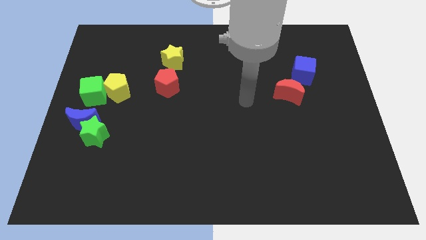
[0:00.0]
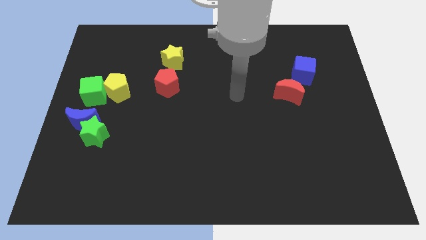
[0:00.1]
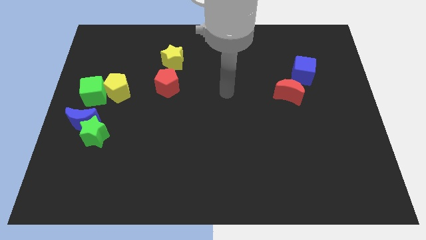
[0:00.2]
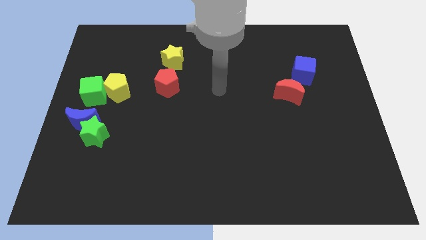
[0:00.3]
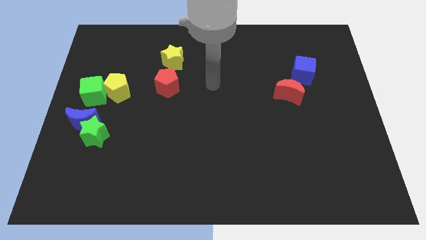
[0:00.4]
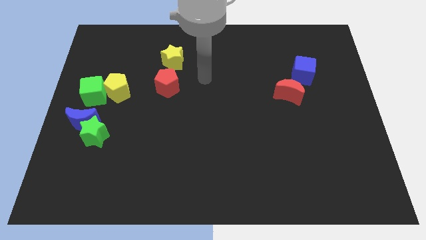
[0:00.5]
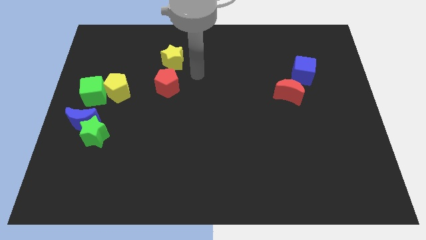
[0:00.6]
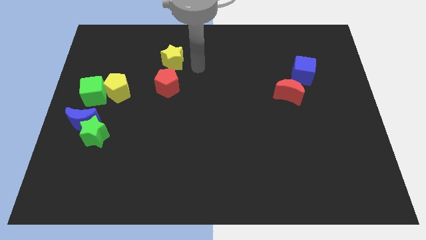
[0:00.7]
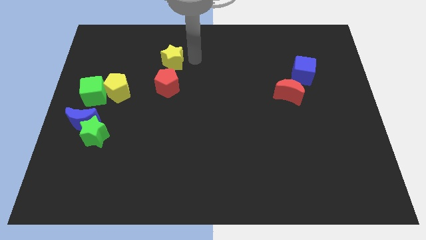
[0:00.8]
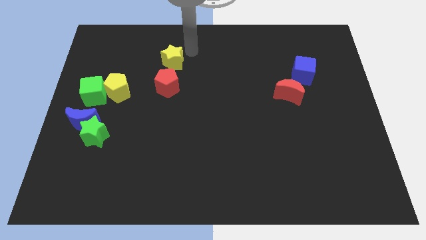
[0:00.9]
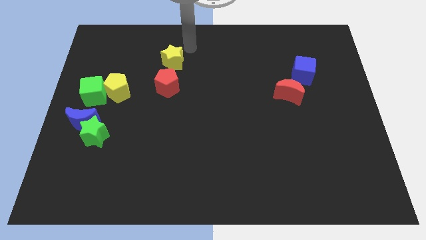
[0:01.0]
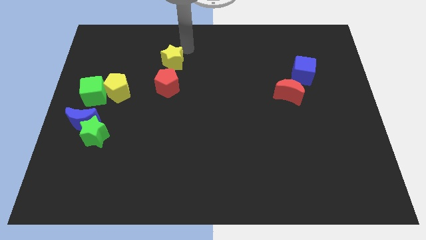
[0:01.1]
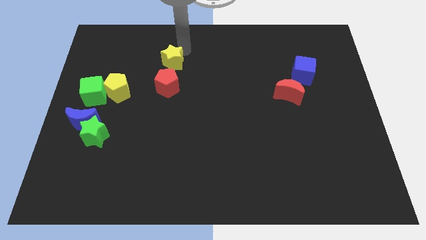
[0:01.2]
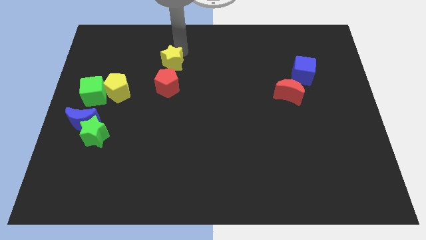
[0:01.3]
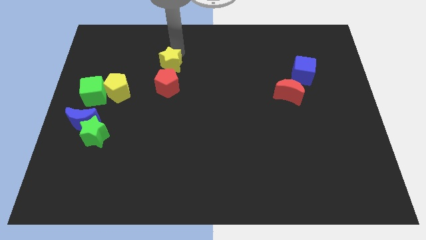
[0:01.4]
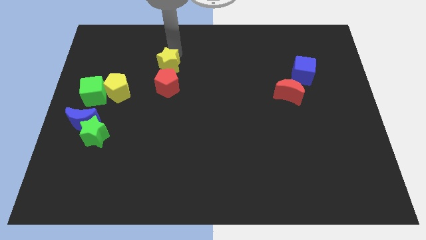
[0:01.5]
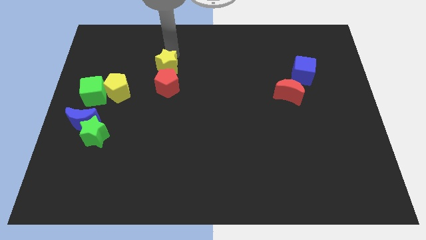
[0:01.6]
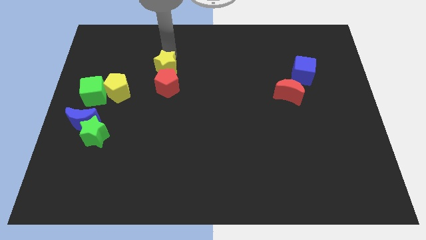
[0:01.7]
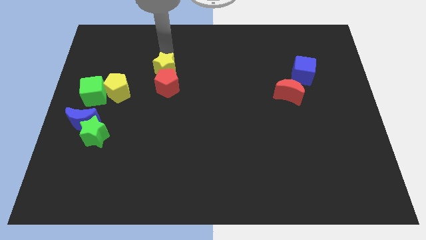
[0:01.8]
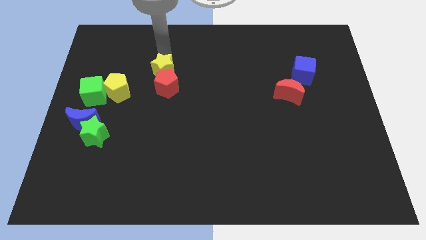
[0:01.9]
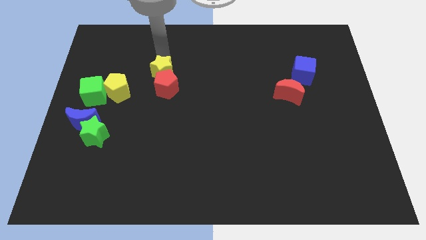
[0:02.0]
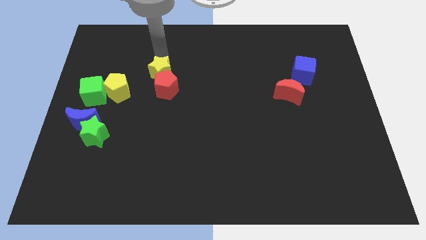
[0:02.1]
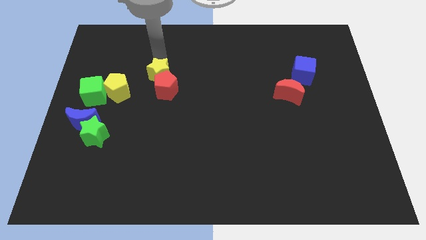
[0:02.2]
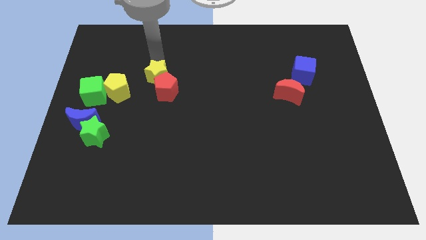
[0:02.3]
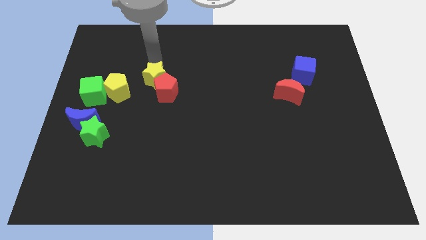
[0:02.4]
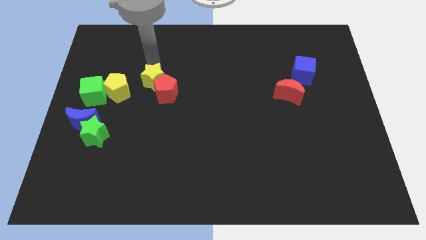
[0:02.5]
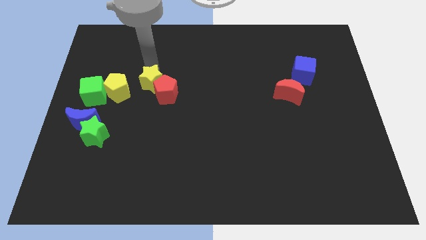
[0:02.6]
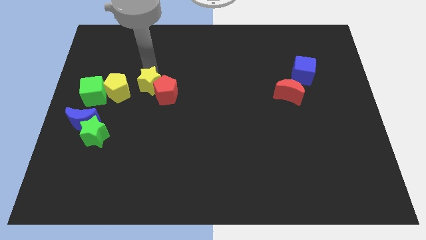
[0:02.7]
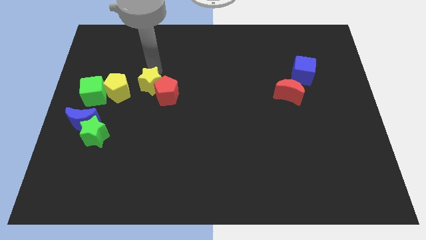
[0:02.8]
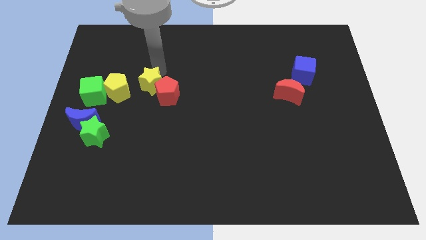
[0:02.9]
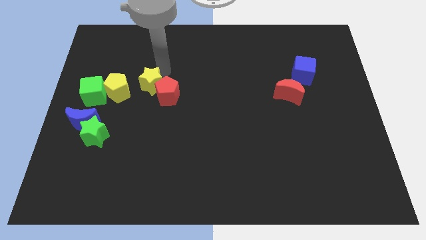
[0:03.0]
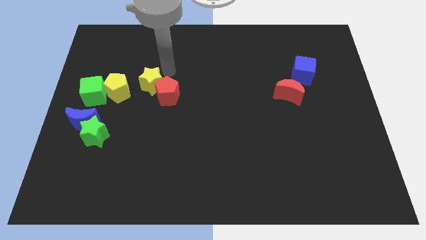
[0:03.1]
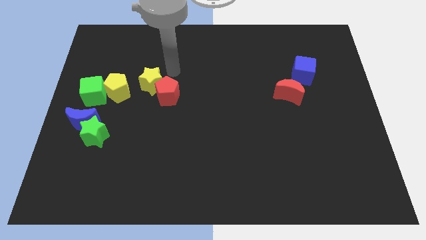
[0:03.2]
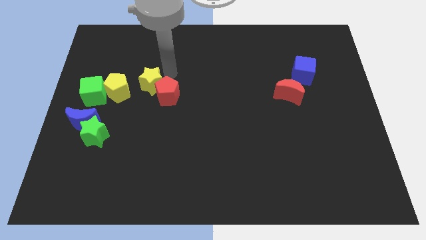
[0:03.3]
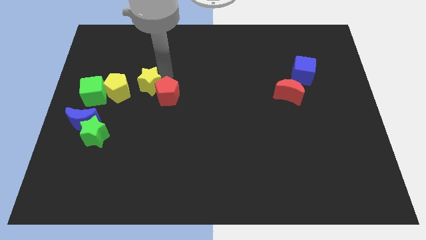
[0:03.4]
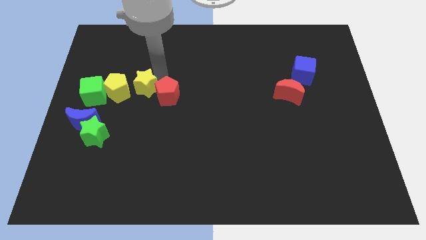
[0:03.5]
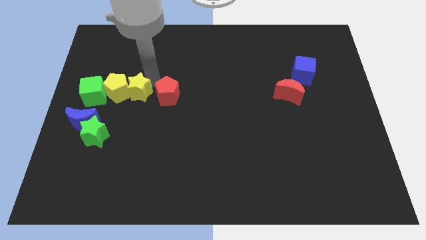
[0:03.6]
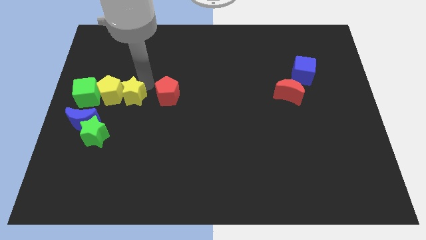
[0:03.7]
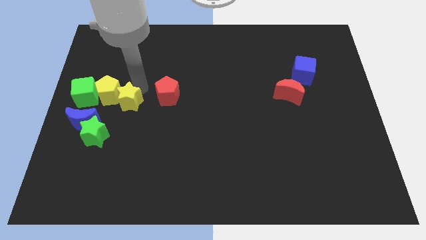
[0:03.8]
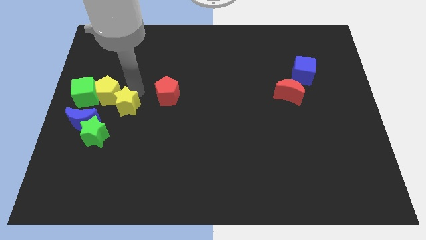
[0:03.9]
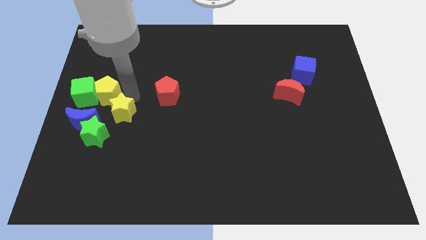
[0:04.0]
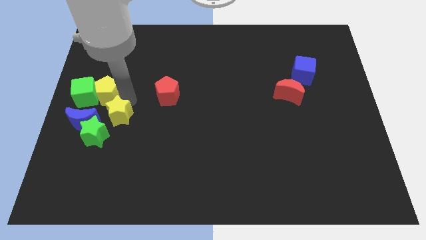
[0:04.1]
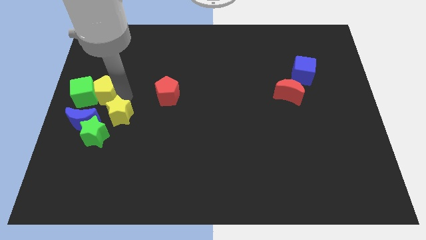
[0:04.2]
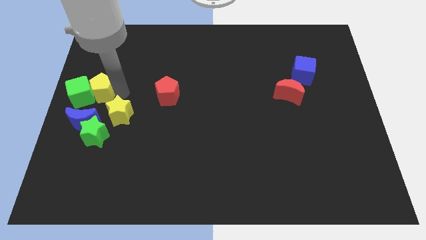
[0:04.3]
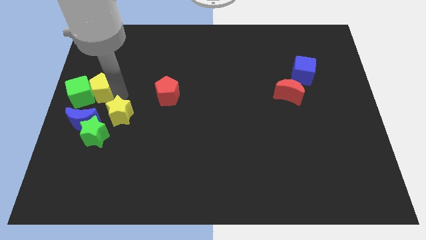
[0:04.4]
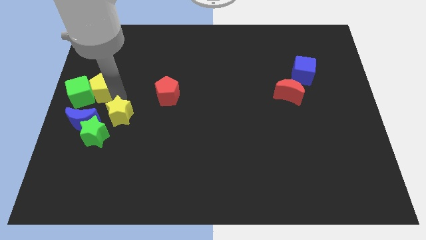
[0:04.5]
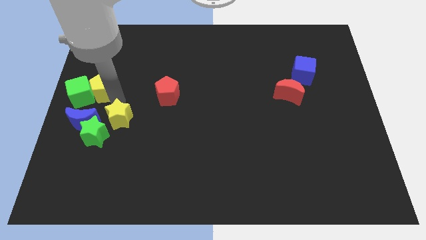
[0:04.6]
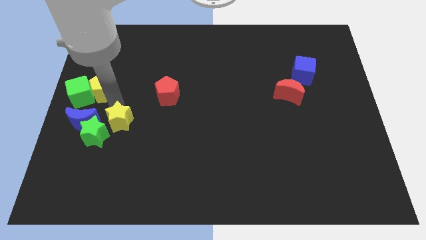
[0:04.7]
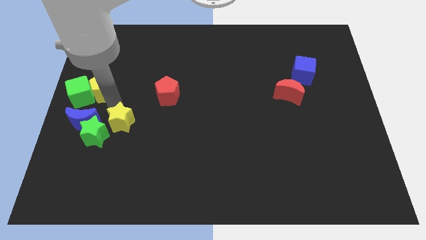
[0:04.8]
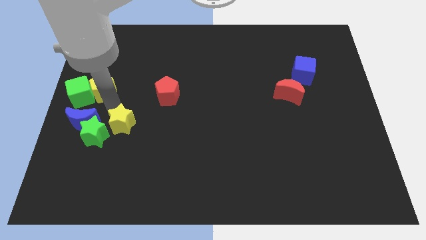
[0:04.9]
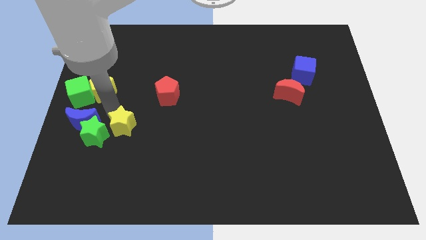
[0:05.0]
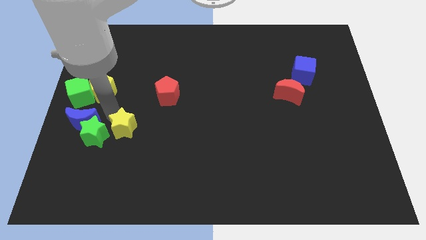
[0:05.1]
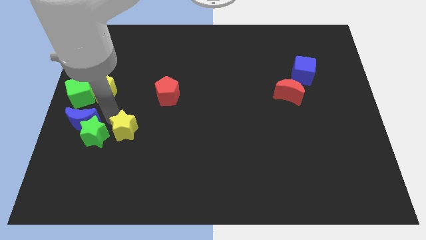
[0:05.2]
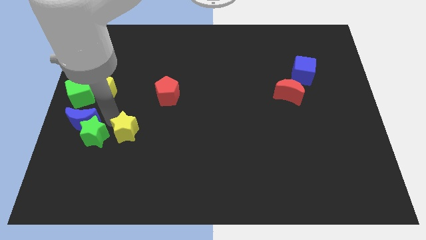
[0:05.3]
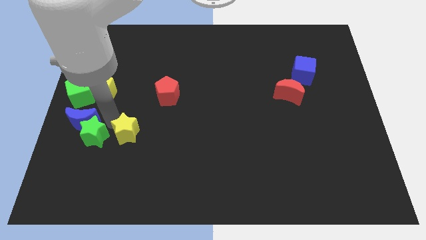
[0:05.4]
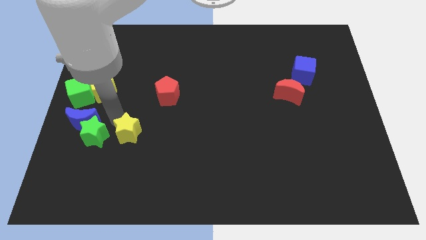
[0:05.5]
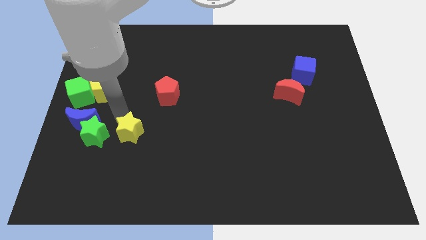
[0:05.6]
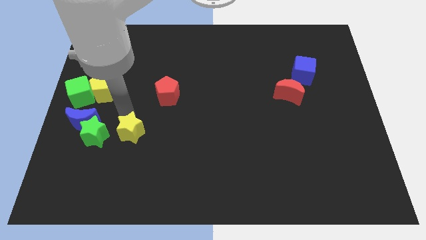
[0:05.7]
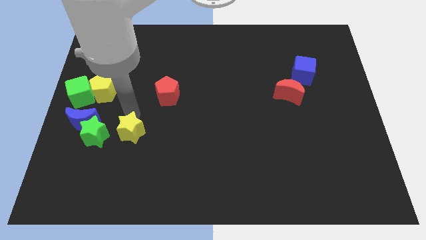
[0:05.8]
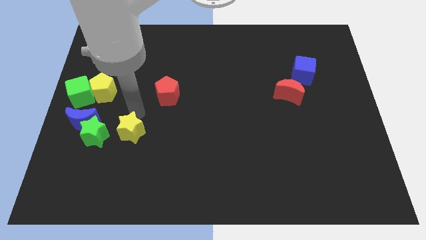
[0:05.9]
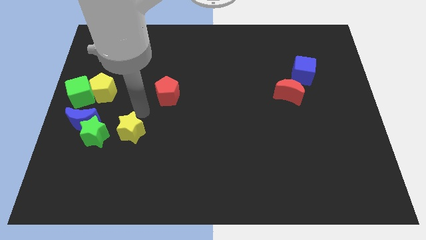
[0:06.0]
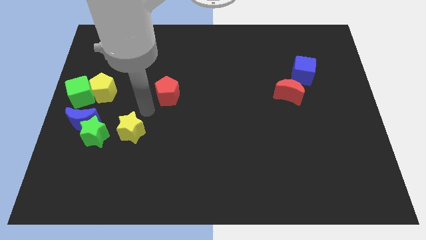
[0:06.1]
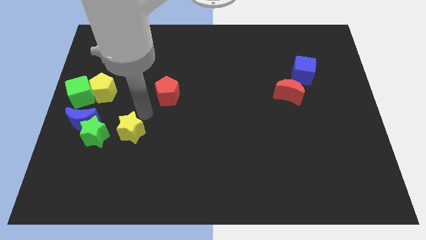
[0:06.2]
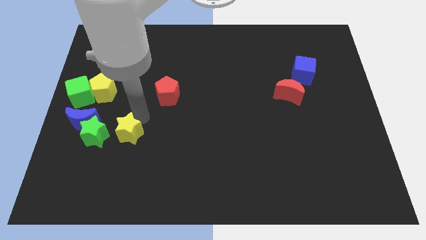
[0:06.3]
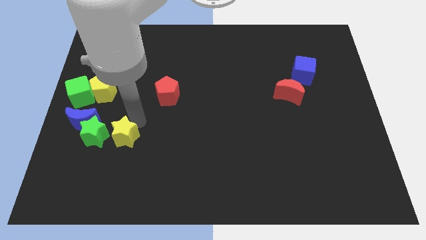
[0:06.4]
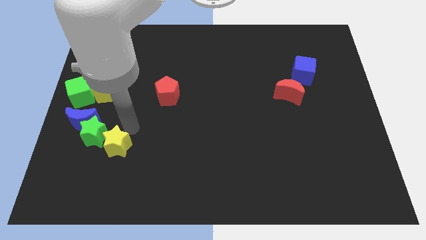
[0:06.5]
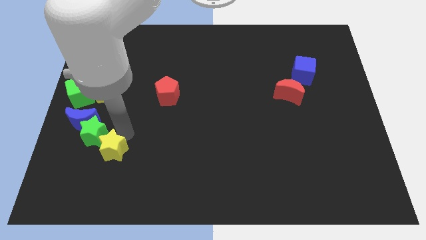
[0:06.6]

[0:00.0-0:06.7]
put the yellow star to the bottom side of the green star

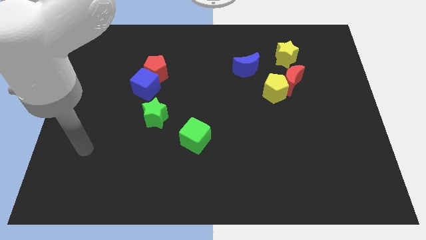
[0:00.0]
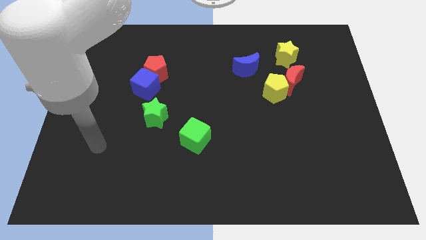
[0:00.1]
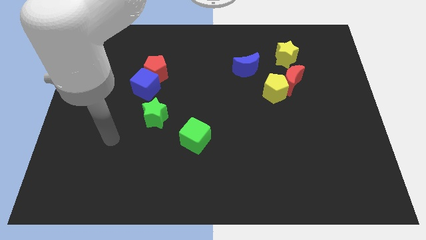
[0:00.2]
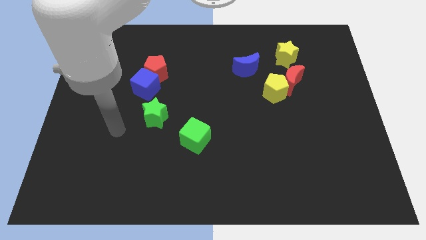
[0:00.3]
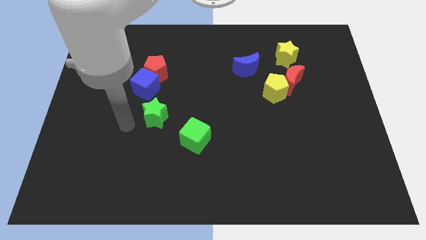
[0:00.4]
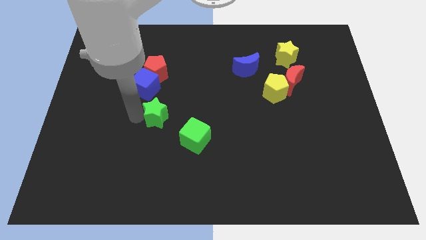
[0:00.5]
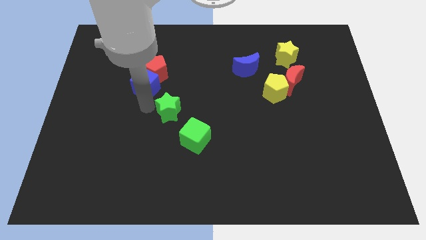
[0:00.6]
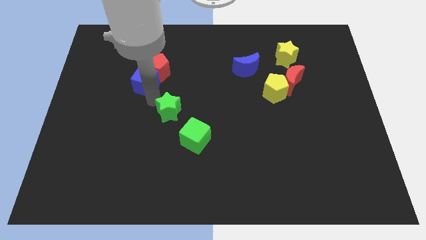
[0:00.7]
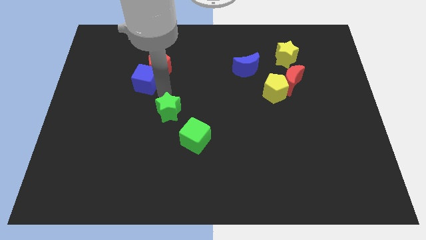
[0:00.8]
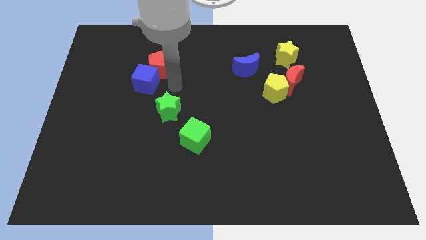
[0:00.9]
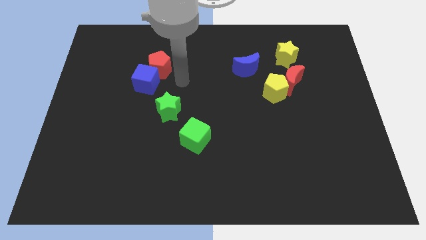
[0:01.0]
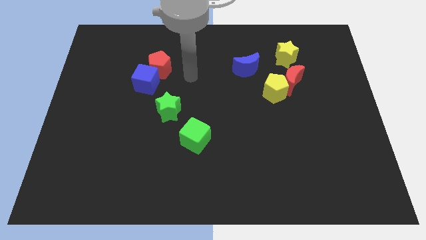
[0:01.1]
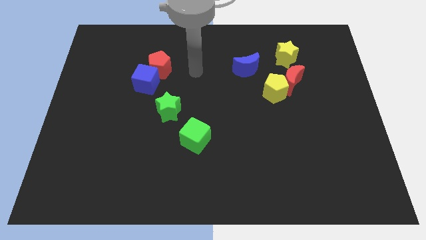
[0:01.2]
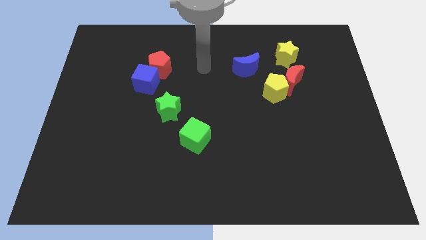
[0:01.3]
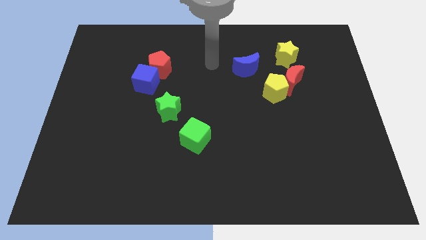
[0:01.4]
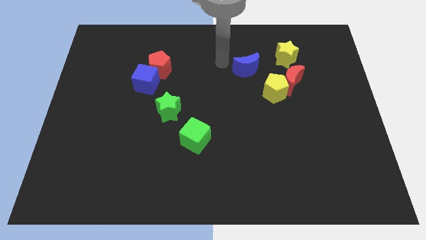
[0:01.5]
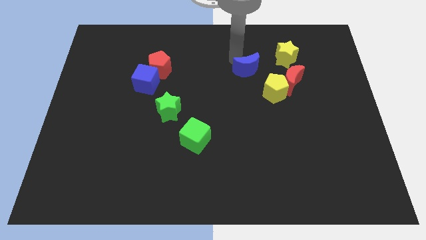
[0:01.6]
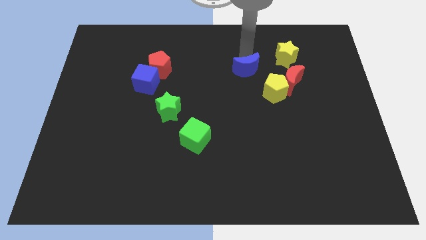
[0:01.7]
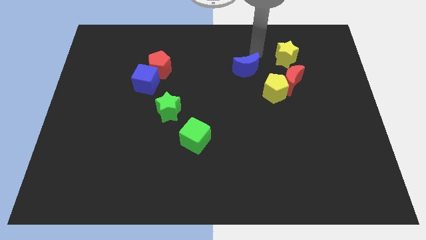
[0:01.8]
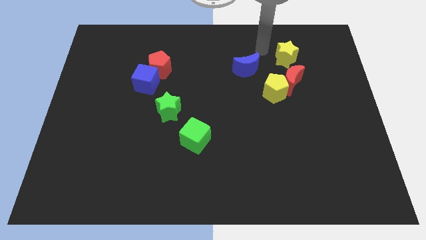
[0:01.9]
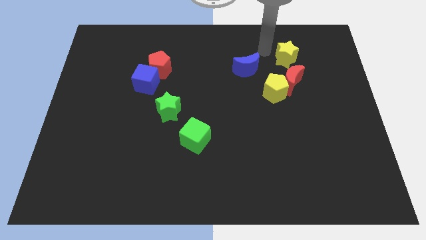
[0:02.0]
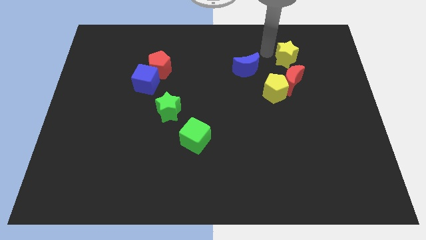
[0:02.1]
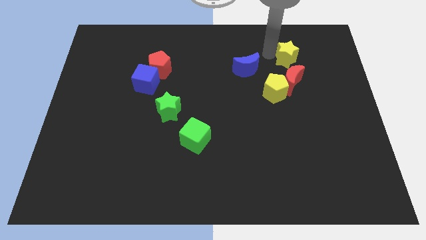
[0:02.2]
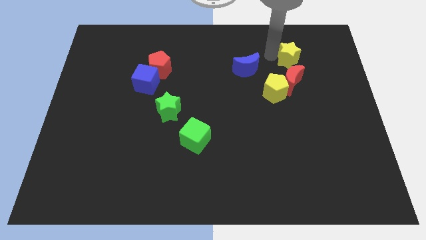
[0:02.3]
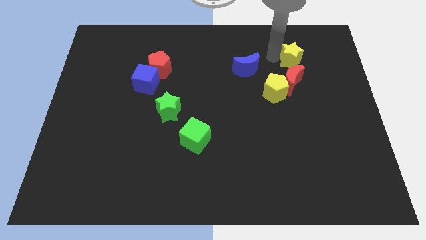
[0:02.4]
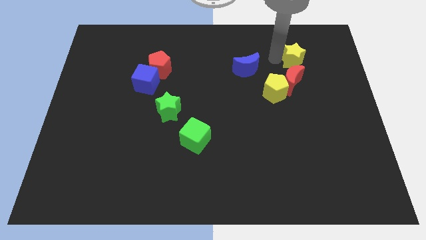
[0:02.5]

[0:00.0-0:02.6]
put the yellow star to the top right side of the red moon
